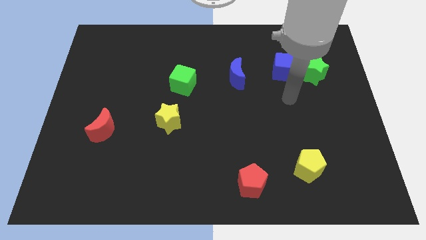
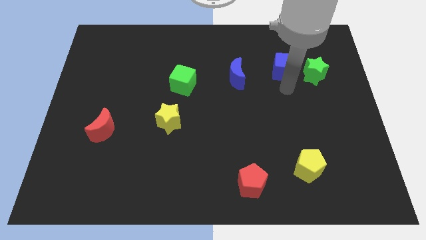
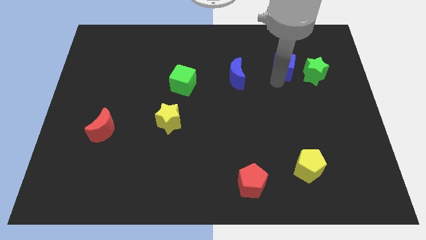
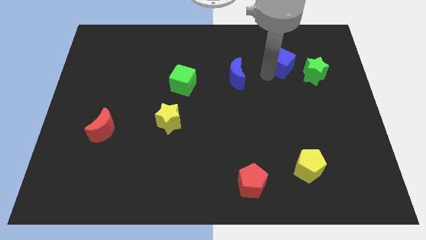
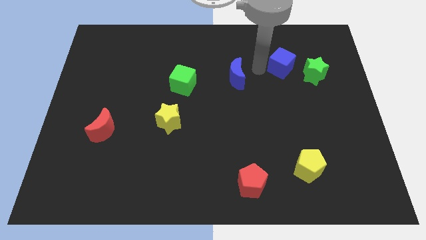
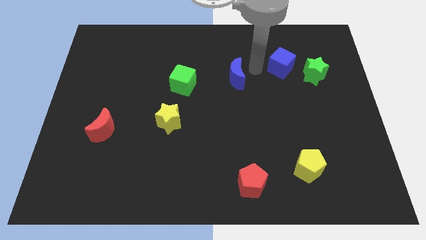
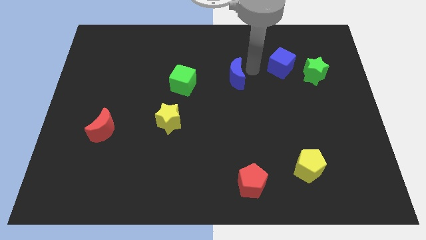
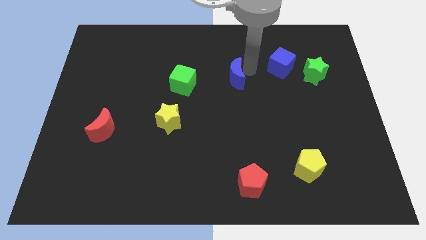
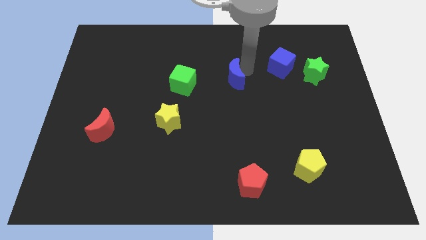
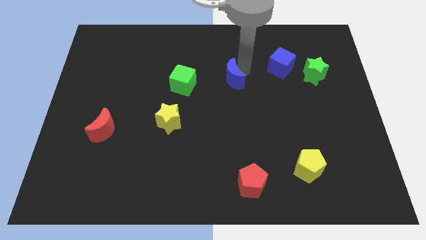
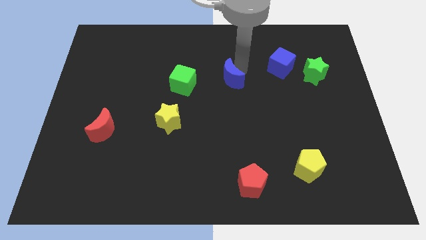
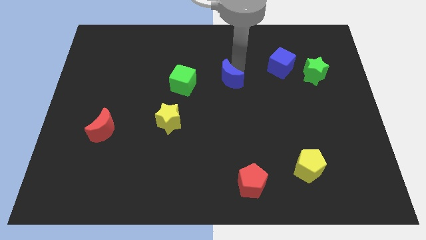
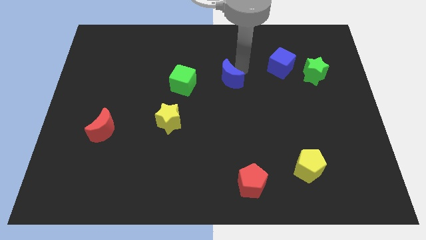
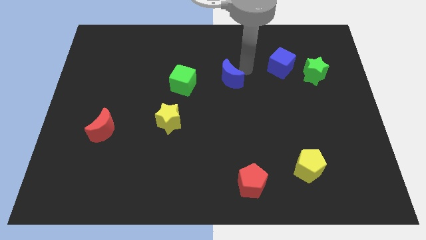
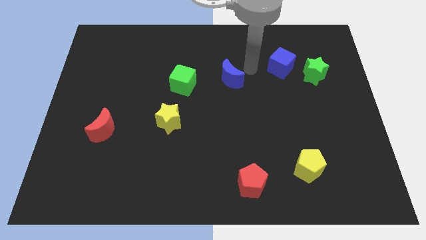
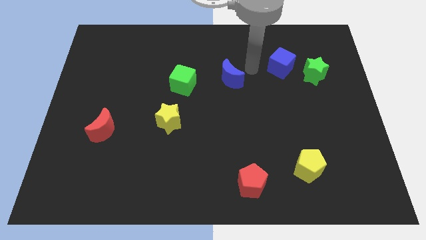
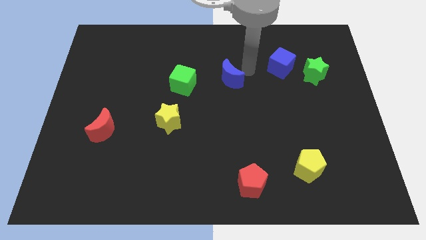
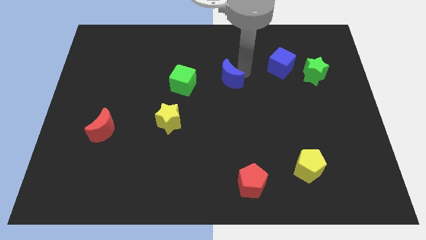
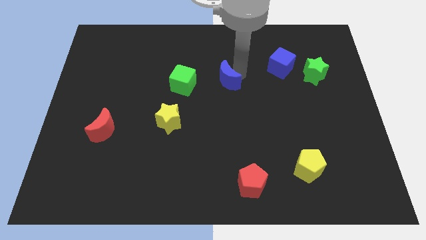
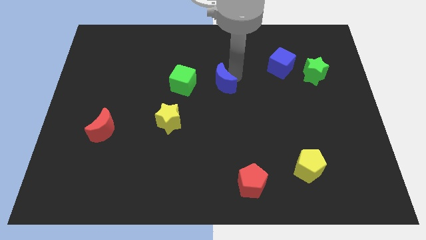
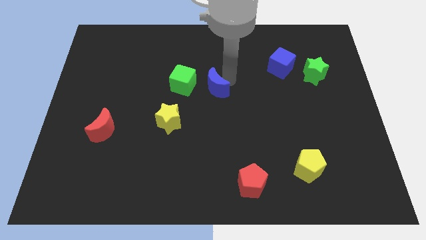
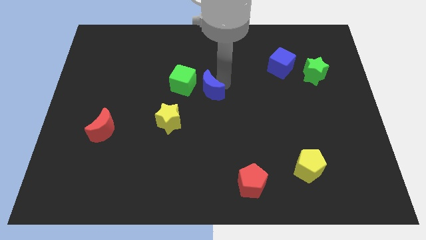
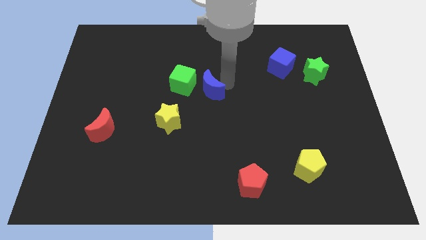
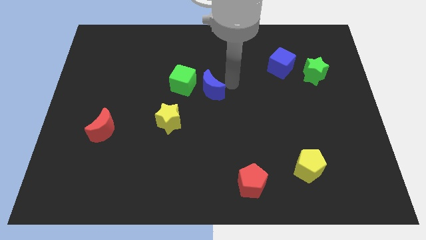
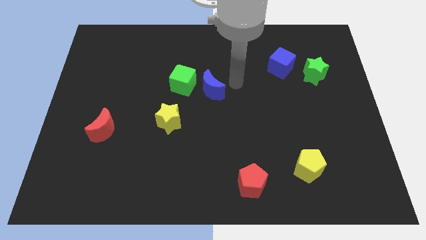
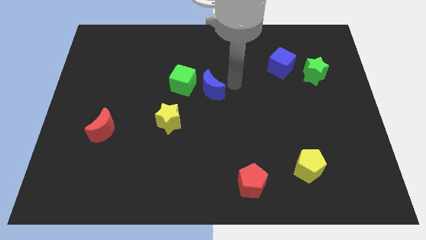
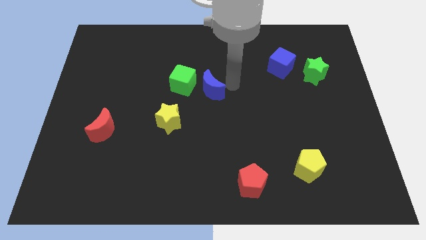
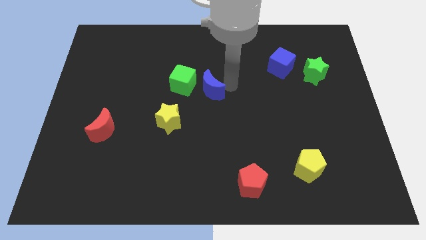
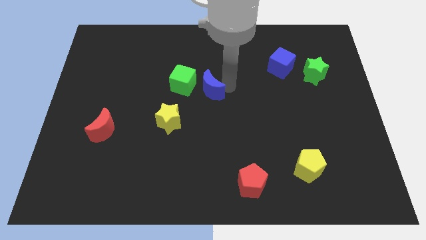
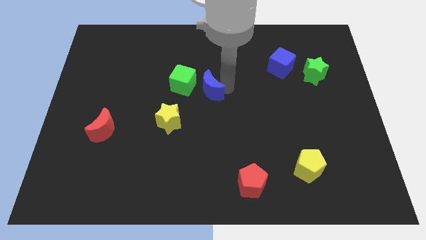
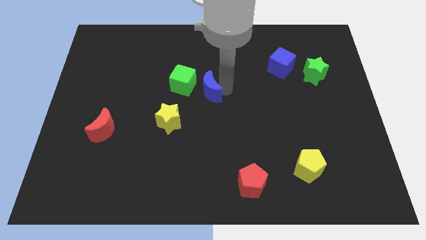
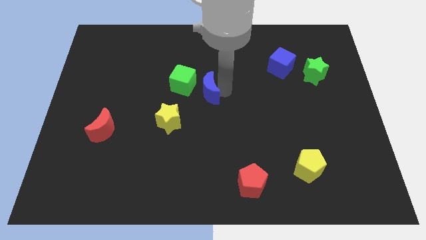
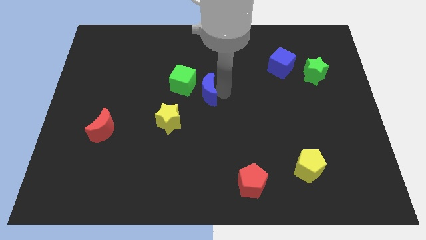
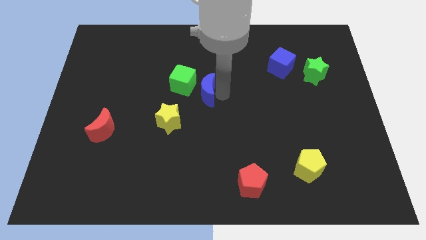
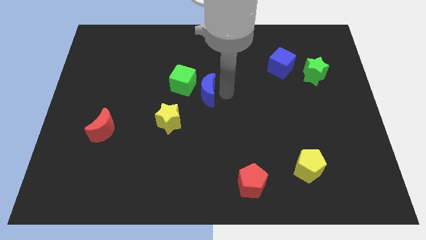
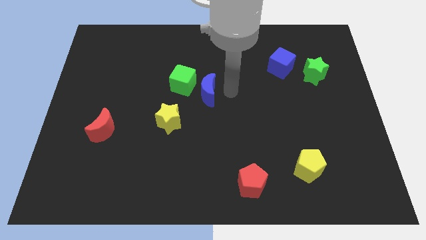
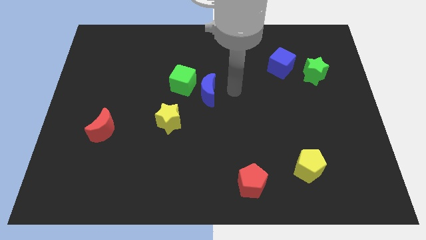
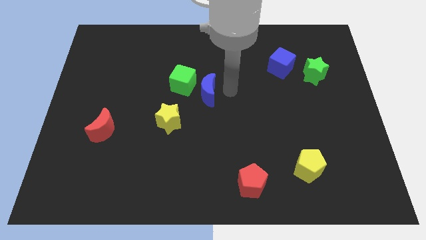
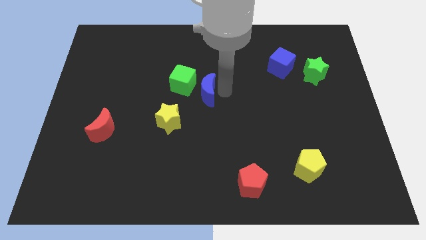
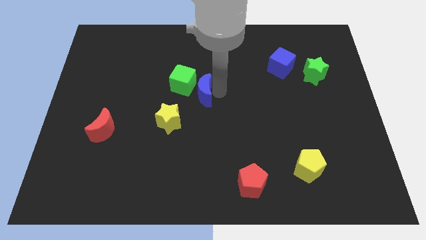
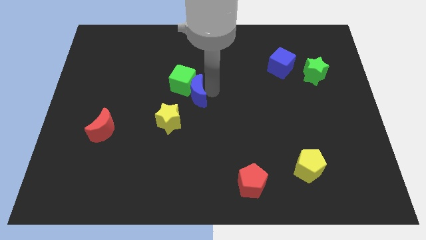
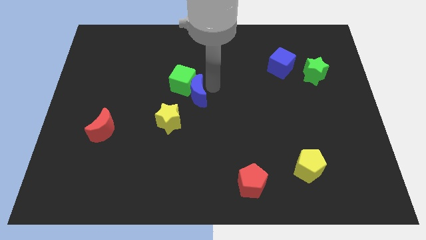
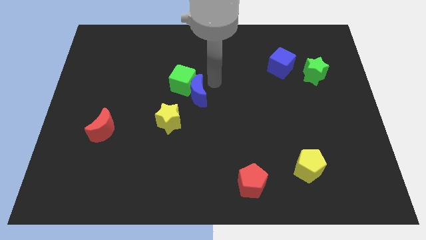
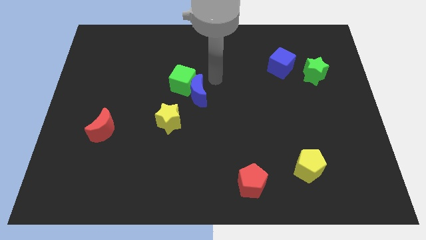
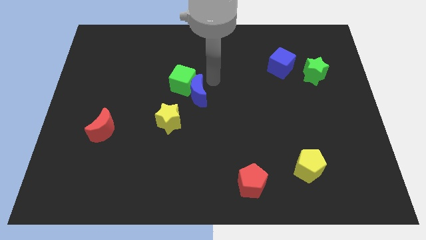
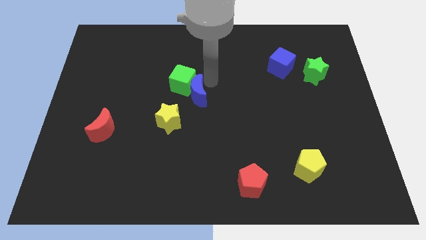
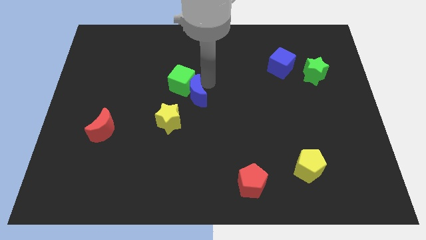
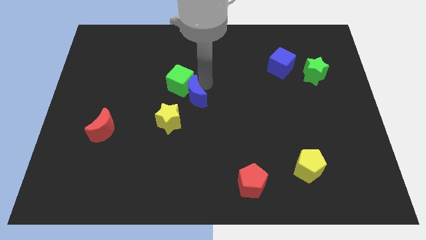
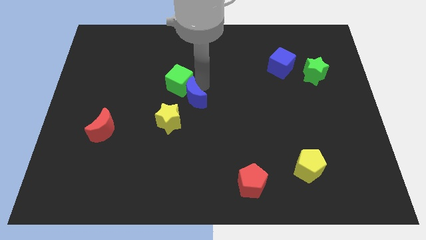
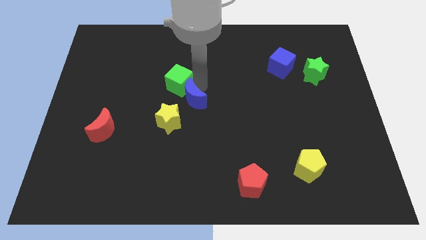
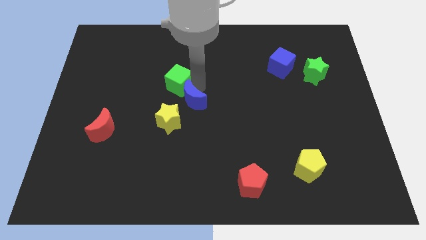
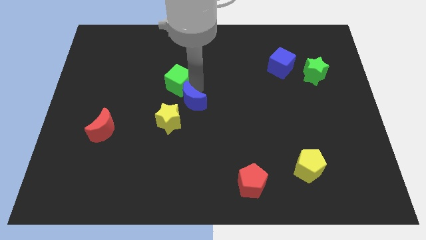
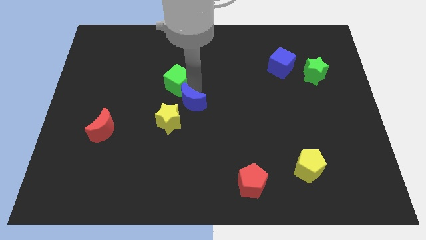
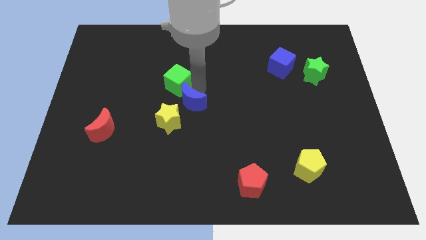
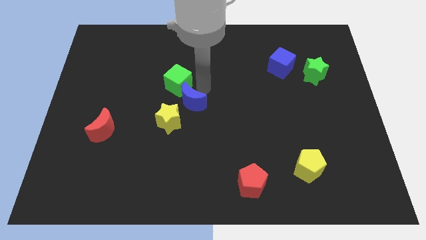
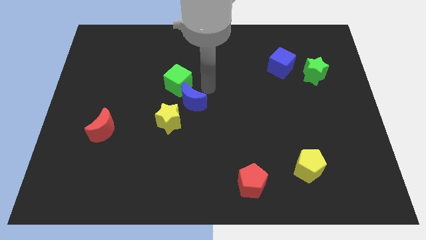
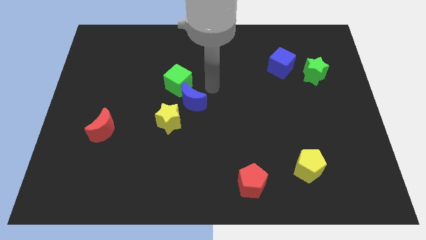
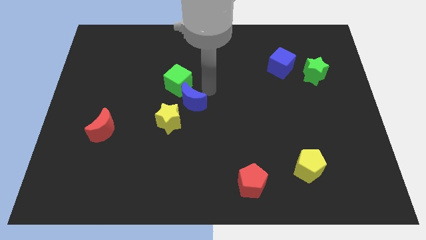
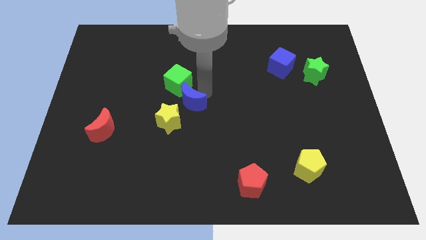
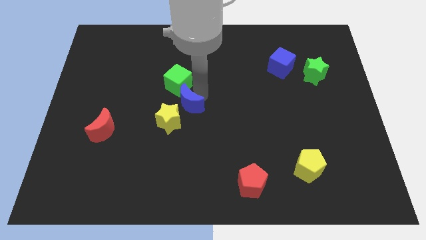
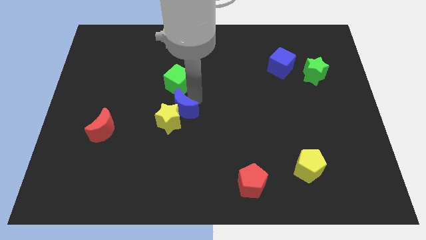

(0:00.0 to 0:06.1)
push the blue moon close to the yellow star

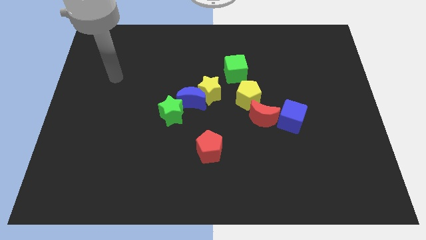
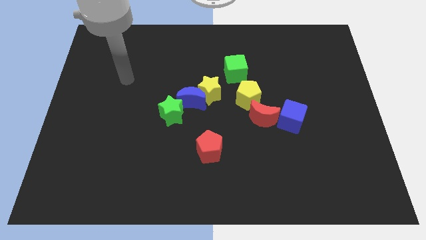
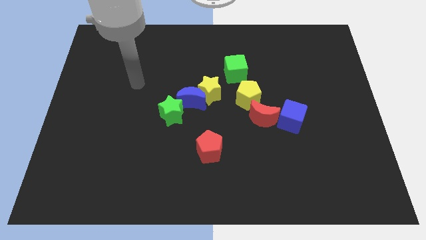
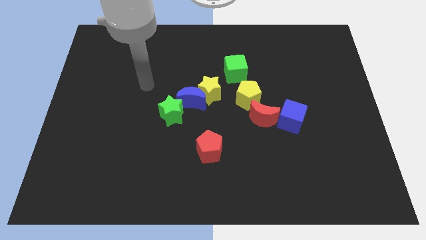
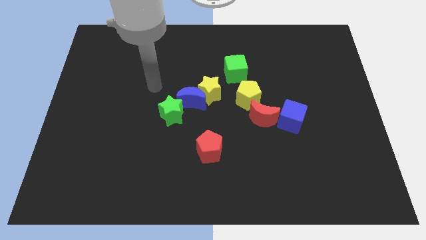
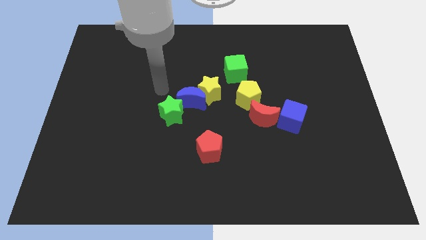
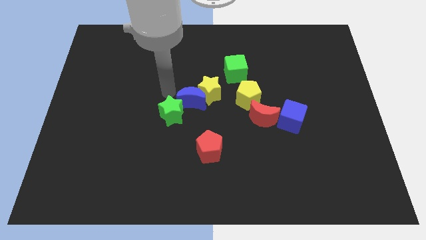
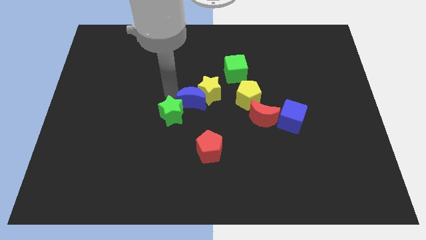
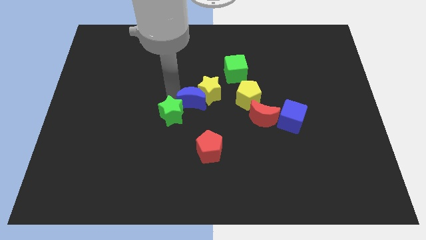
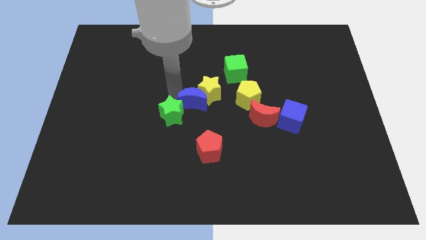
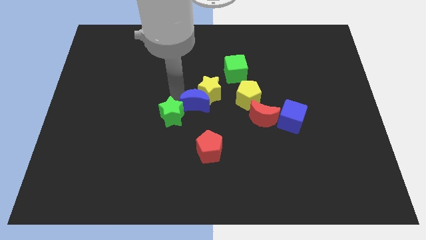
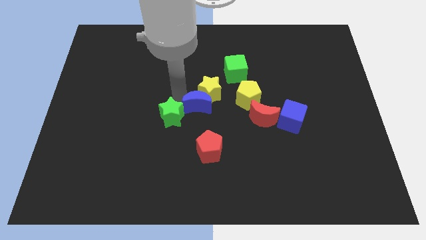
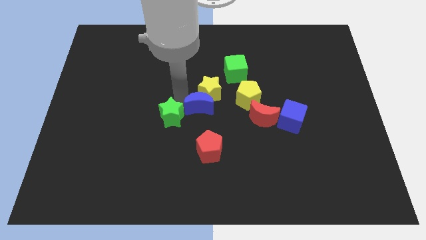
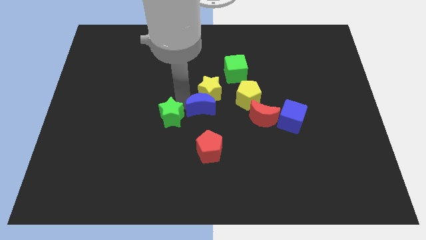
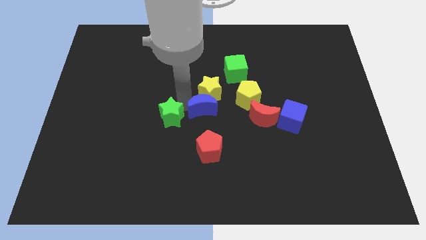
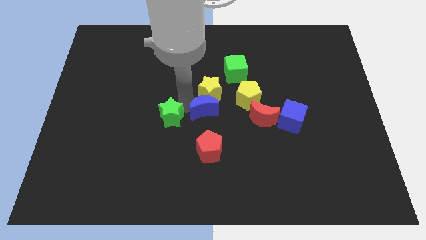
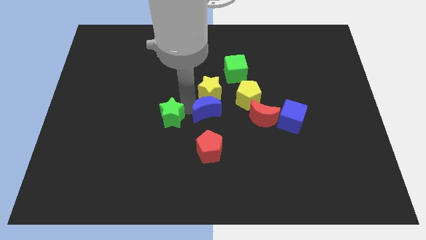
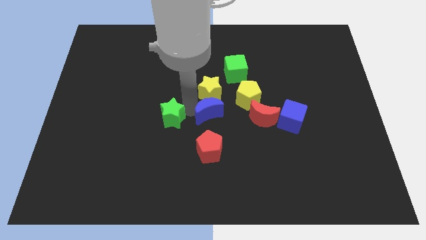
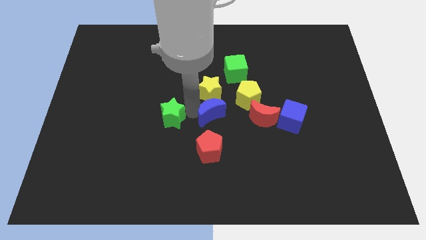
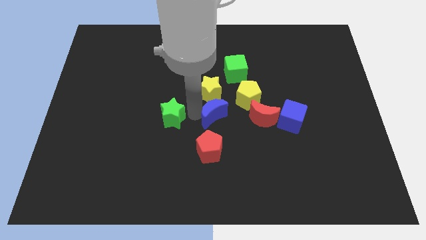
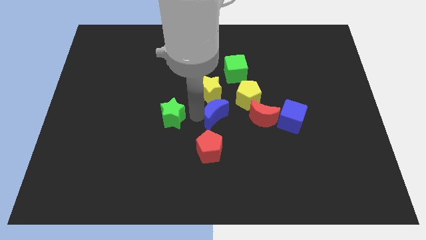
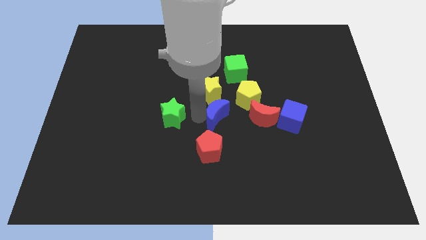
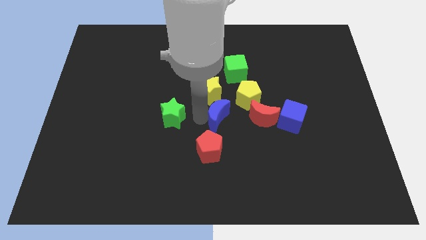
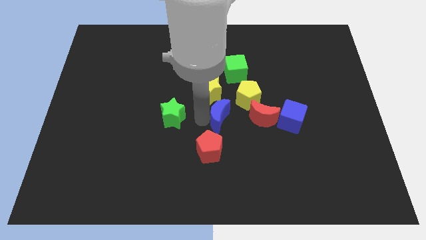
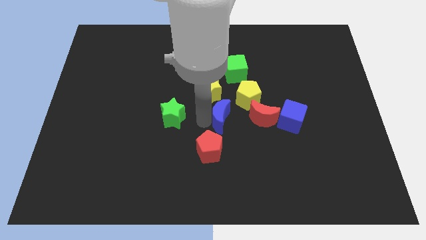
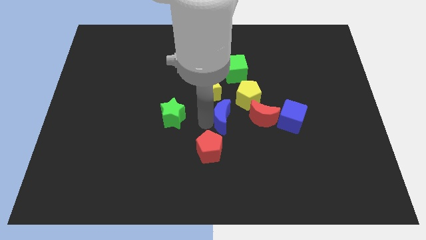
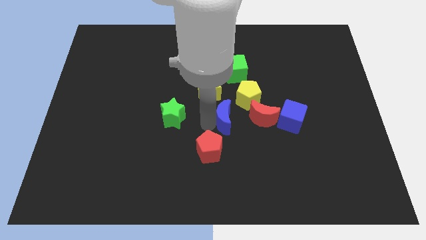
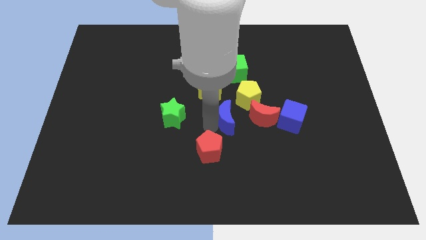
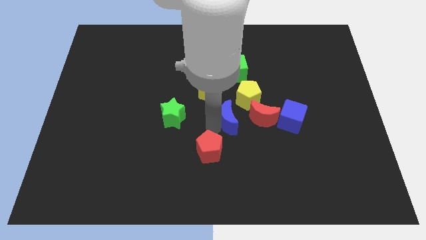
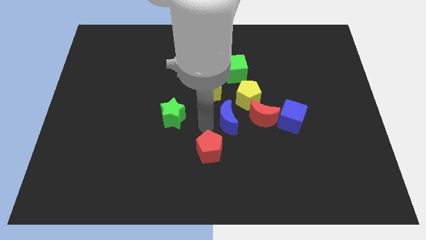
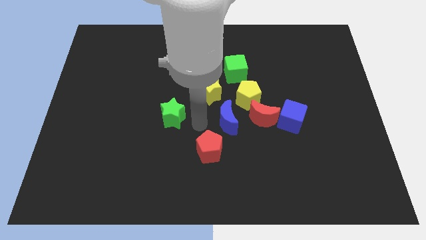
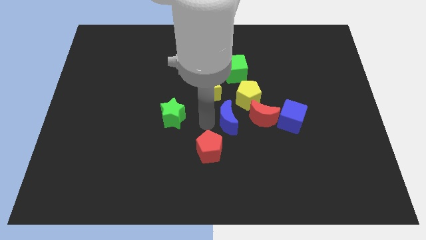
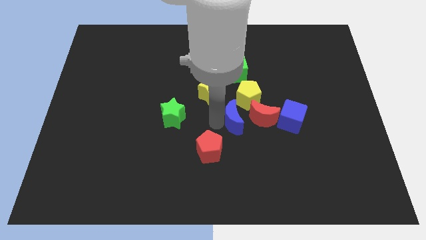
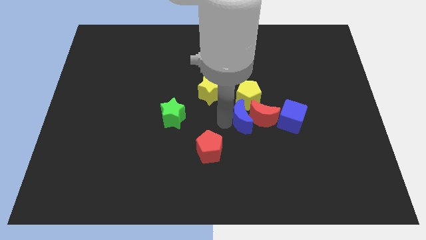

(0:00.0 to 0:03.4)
move the blue moon next to the red moon
